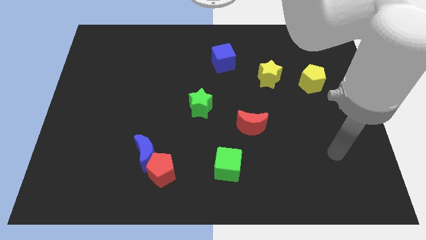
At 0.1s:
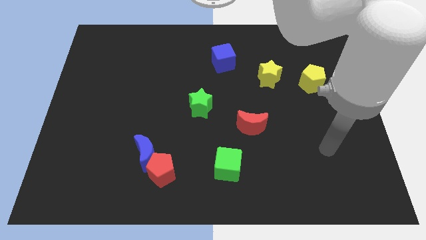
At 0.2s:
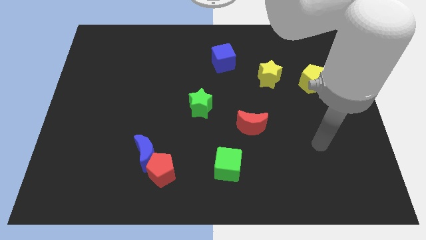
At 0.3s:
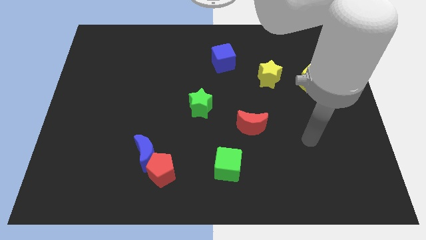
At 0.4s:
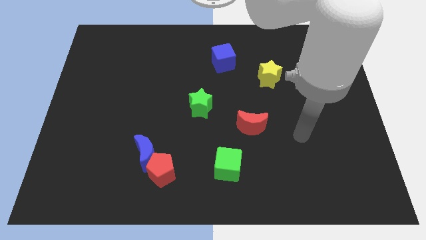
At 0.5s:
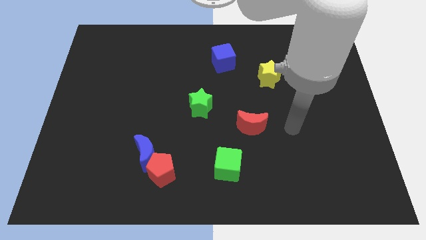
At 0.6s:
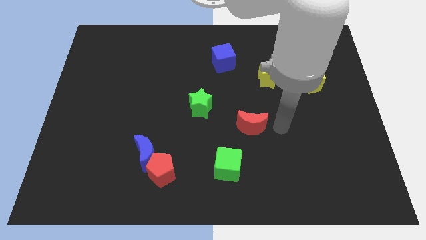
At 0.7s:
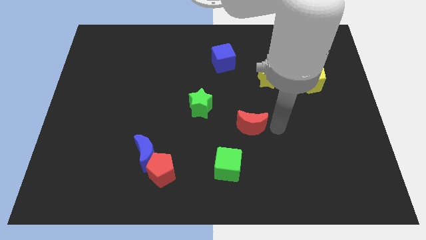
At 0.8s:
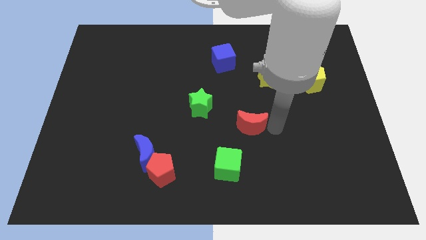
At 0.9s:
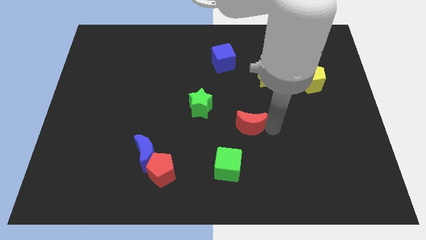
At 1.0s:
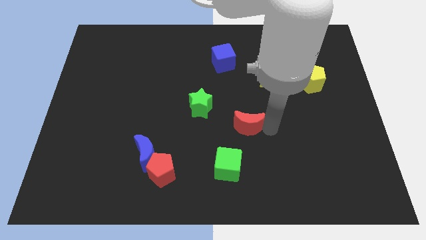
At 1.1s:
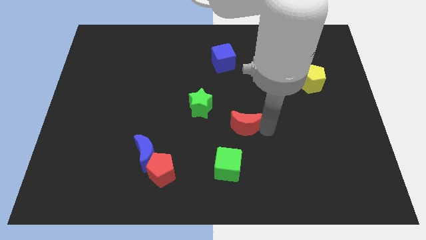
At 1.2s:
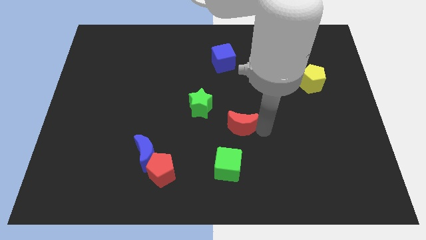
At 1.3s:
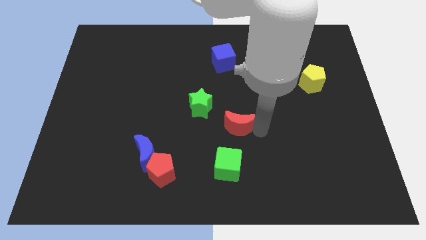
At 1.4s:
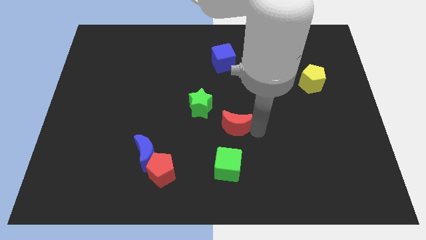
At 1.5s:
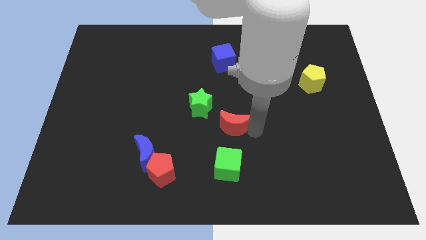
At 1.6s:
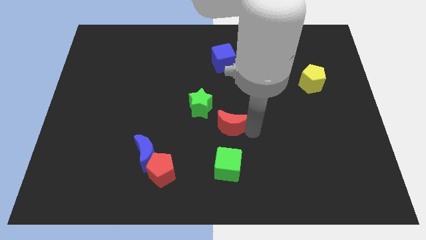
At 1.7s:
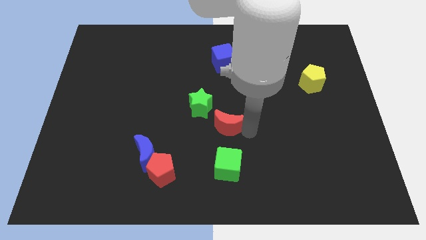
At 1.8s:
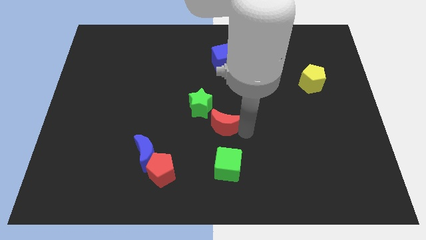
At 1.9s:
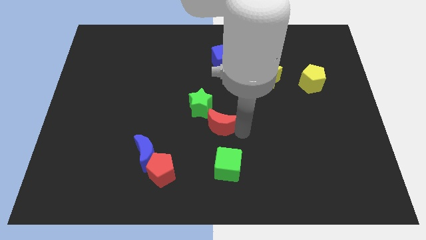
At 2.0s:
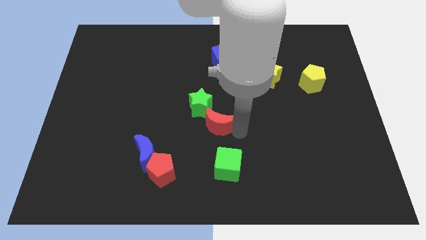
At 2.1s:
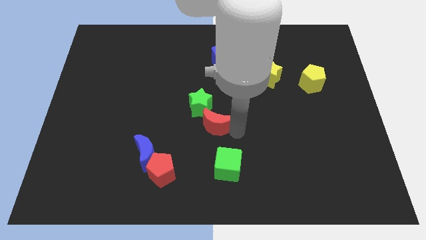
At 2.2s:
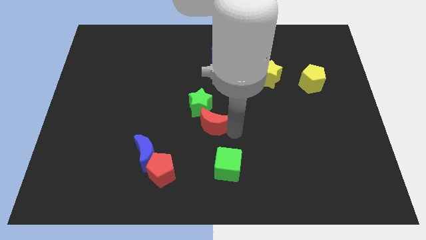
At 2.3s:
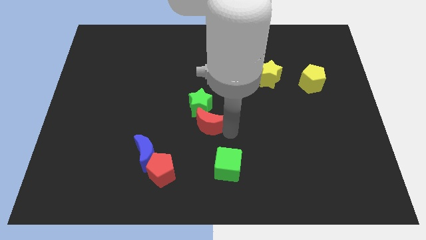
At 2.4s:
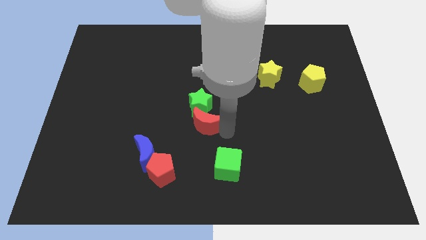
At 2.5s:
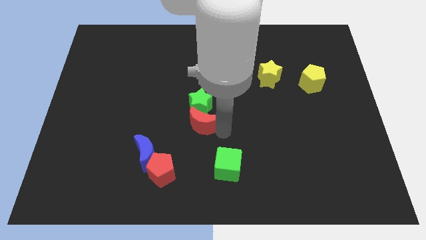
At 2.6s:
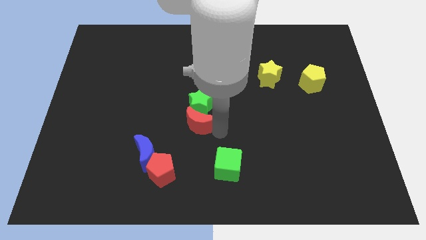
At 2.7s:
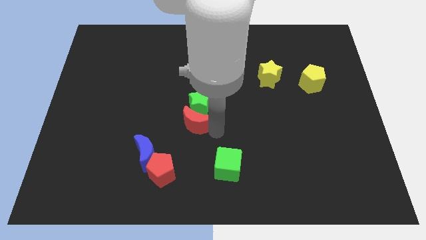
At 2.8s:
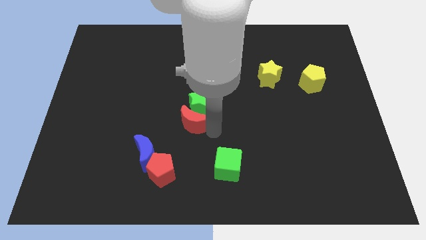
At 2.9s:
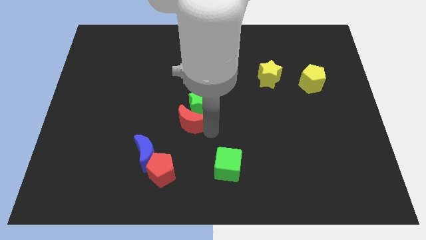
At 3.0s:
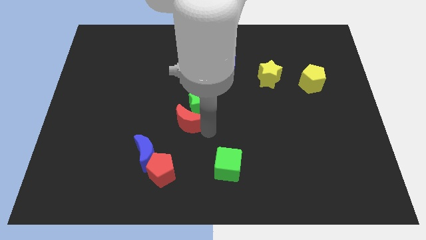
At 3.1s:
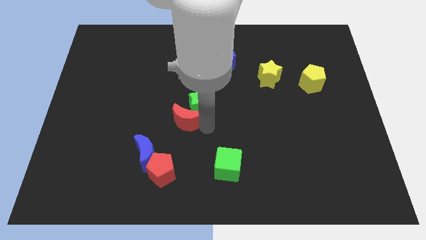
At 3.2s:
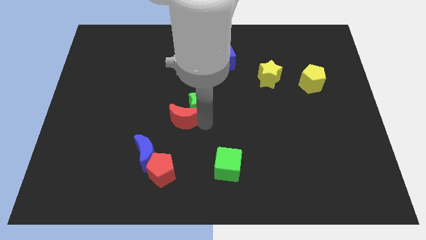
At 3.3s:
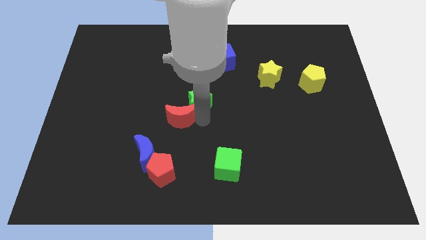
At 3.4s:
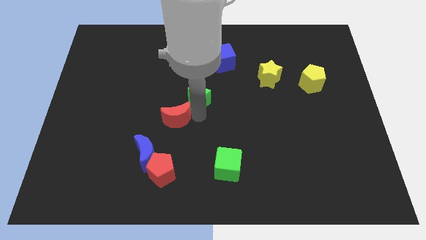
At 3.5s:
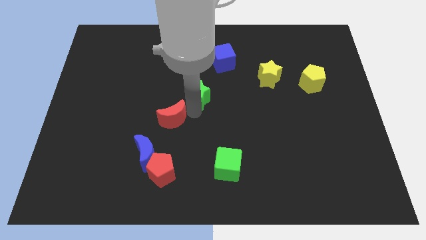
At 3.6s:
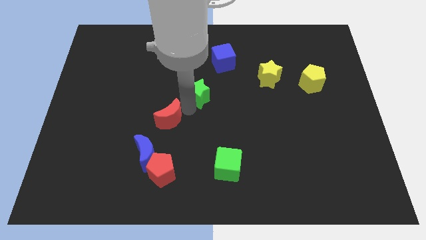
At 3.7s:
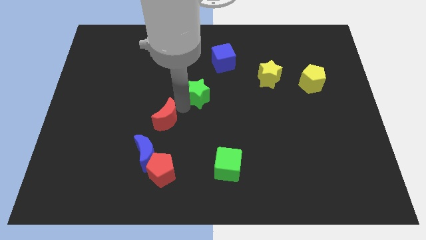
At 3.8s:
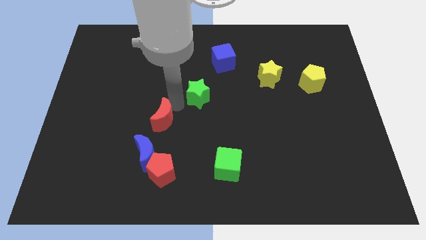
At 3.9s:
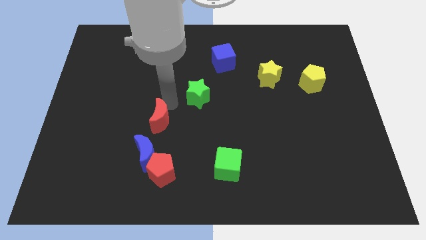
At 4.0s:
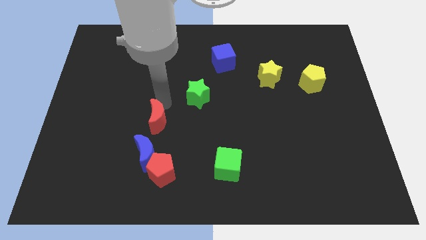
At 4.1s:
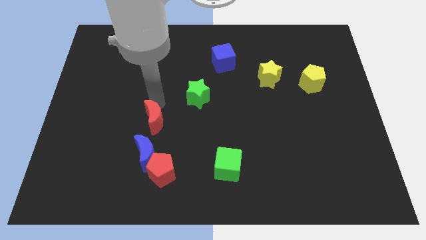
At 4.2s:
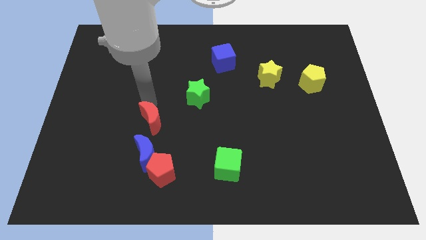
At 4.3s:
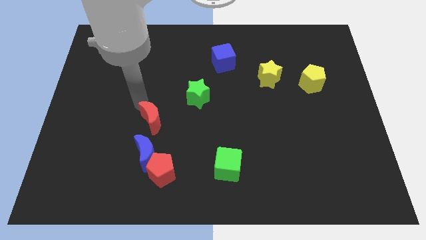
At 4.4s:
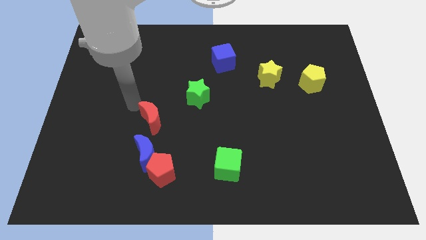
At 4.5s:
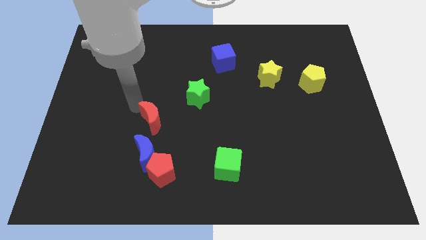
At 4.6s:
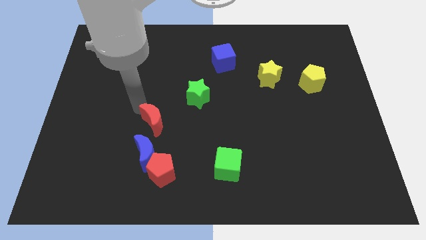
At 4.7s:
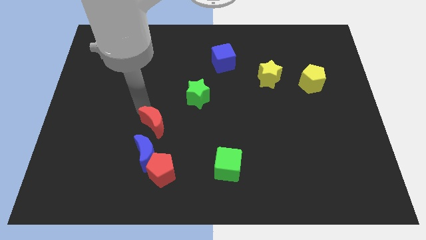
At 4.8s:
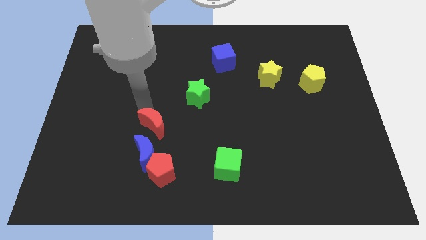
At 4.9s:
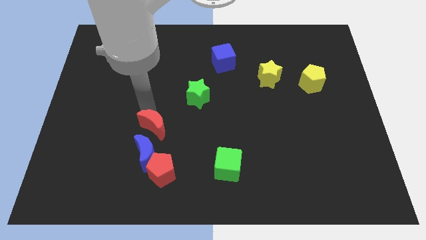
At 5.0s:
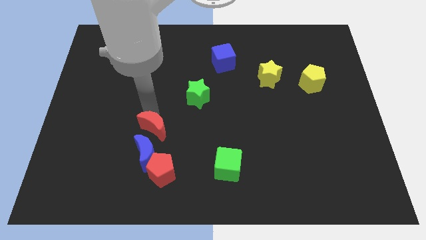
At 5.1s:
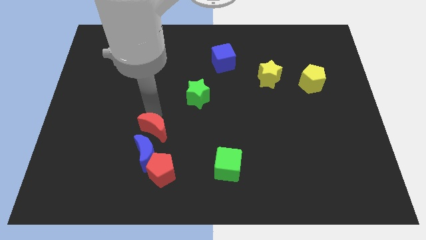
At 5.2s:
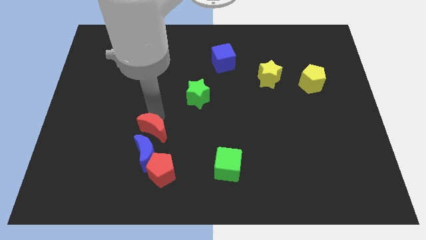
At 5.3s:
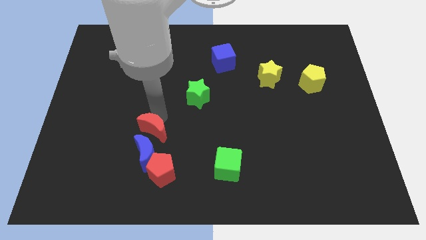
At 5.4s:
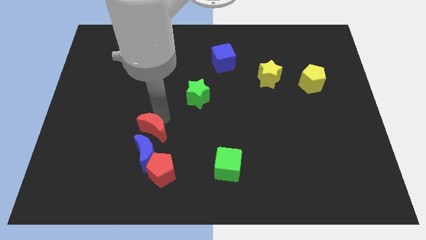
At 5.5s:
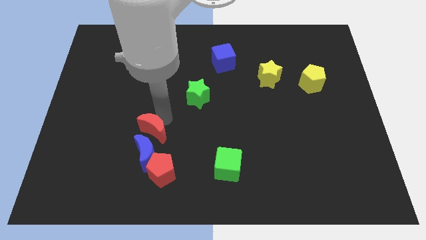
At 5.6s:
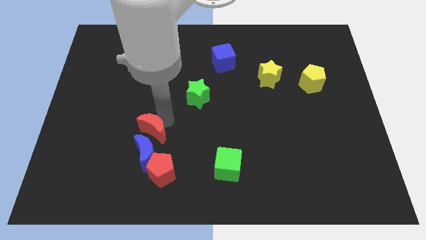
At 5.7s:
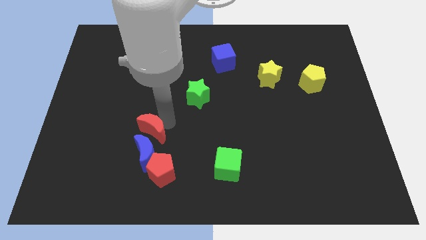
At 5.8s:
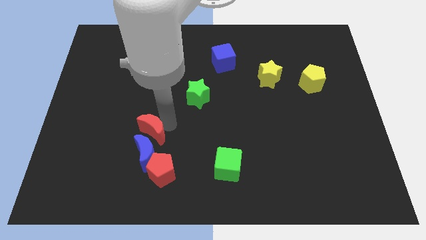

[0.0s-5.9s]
move the red moon next to the blue moon

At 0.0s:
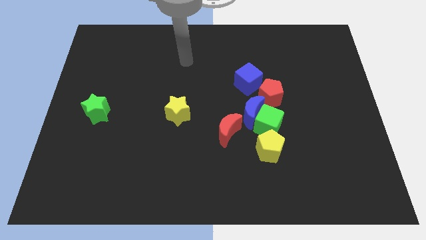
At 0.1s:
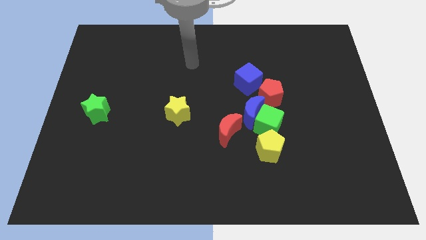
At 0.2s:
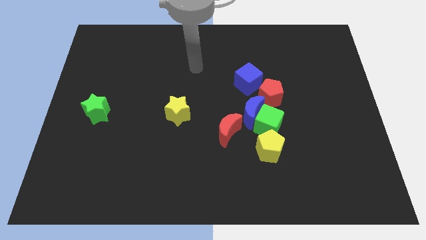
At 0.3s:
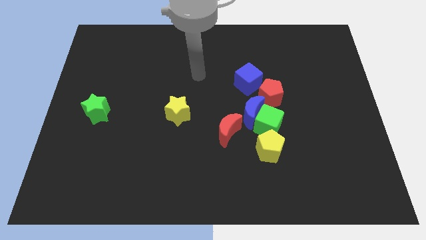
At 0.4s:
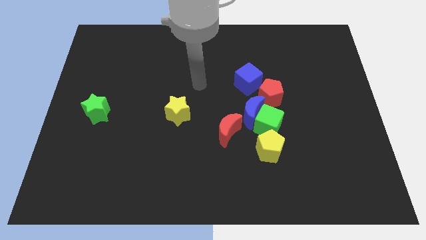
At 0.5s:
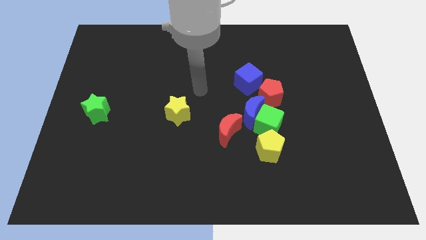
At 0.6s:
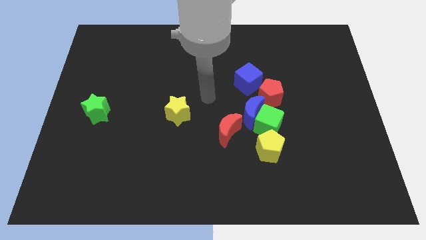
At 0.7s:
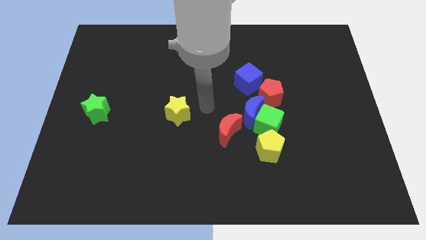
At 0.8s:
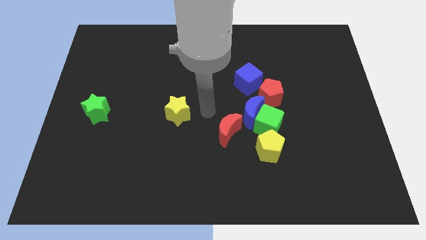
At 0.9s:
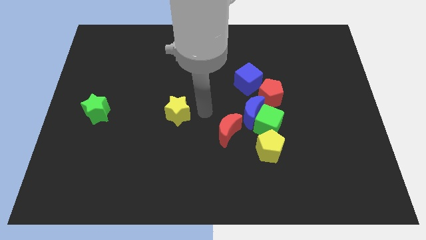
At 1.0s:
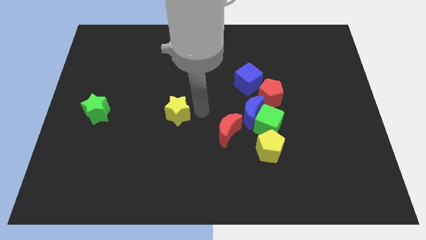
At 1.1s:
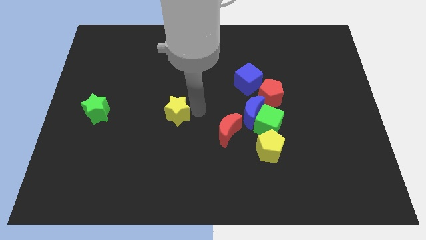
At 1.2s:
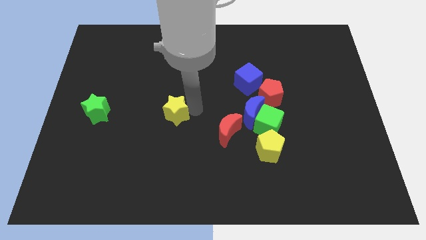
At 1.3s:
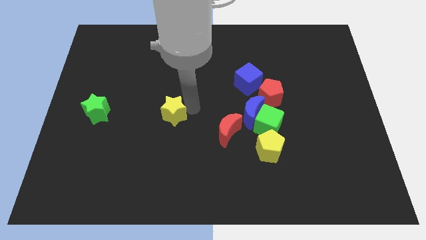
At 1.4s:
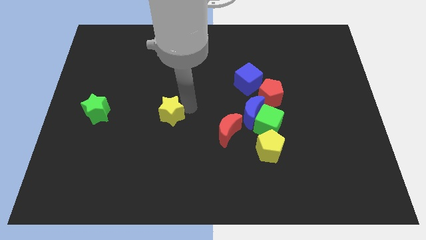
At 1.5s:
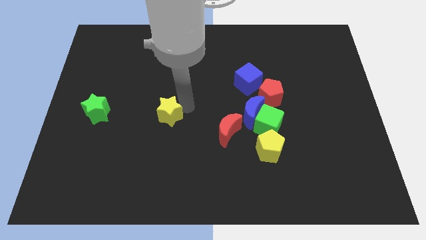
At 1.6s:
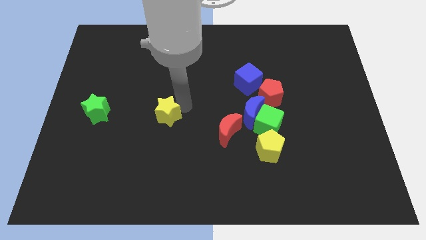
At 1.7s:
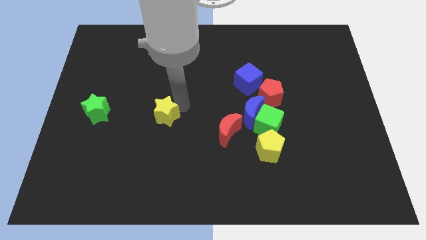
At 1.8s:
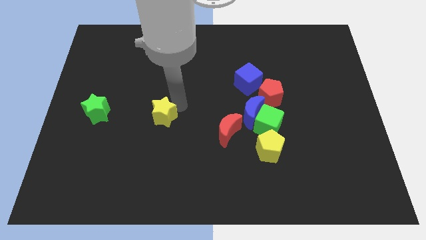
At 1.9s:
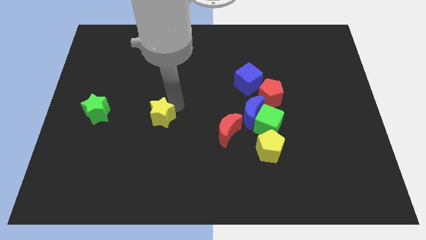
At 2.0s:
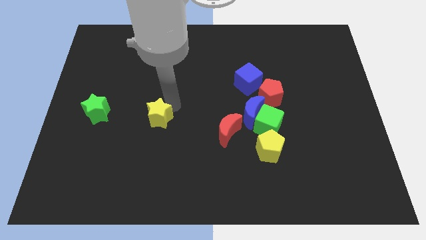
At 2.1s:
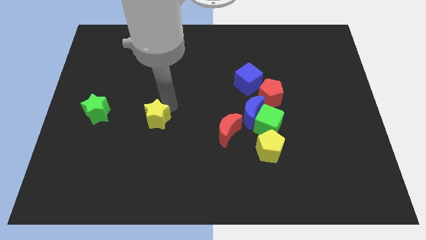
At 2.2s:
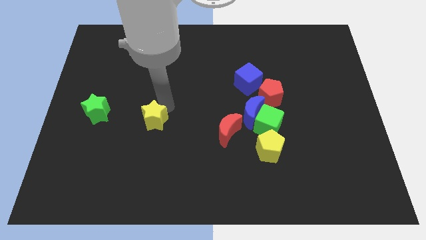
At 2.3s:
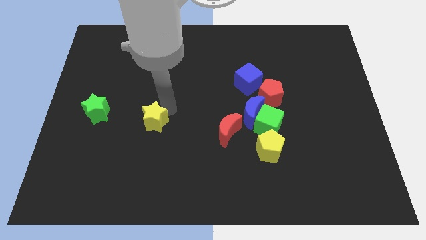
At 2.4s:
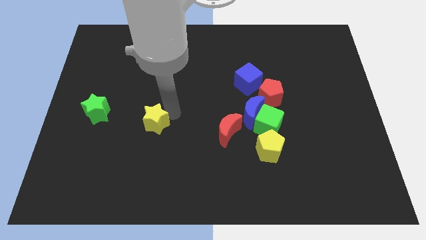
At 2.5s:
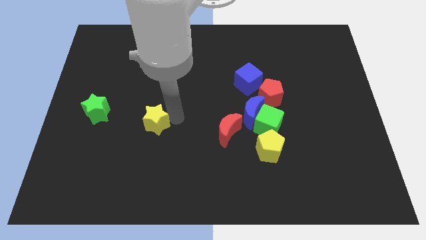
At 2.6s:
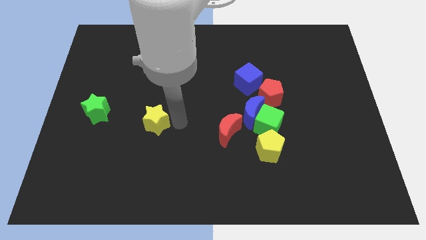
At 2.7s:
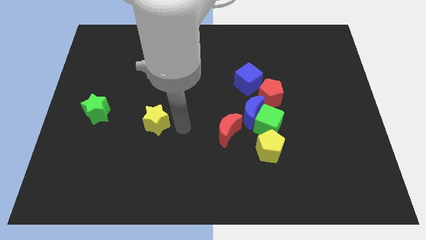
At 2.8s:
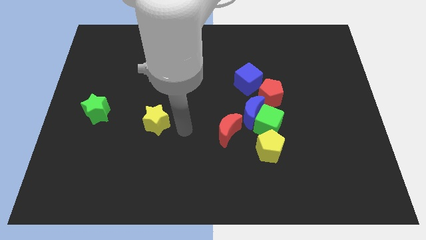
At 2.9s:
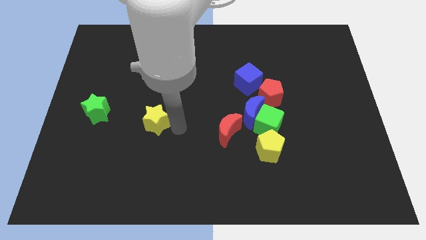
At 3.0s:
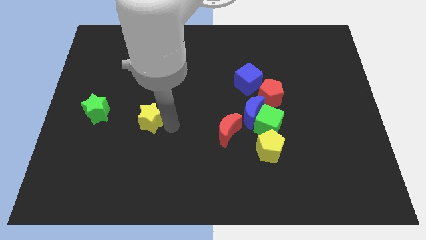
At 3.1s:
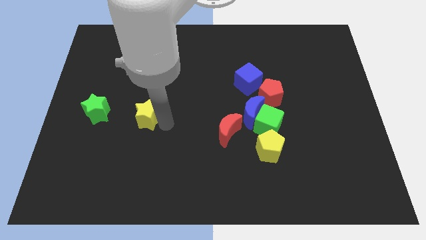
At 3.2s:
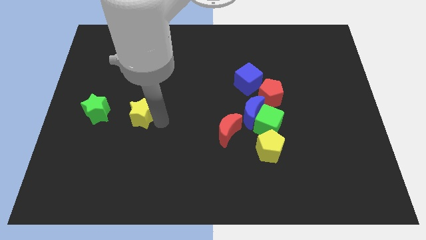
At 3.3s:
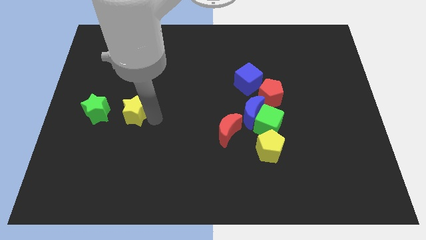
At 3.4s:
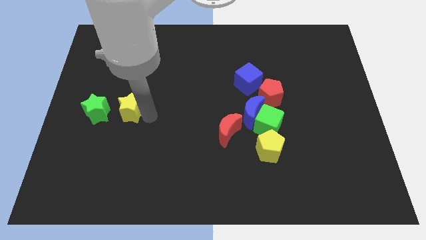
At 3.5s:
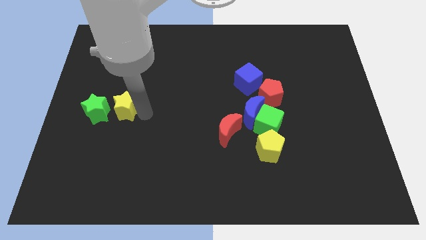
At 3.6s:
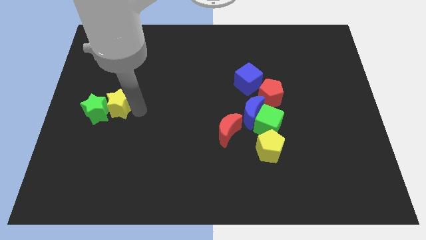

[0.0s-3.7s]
move the yellow star next to the green star
